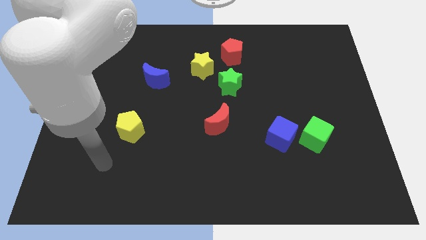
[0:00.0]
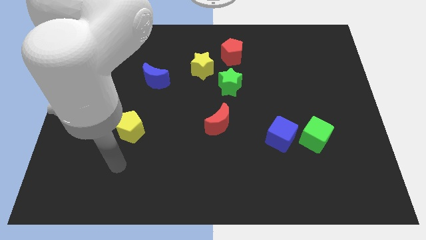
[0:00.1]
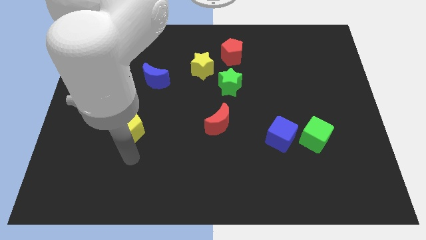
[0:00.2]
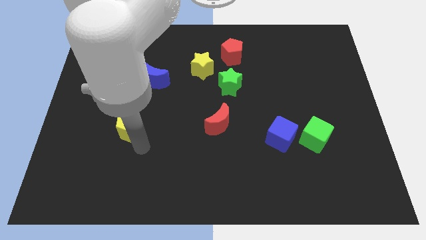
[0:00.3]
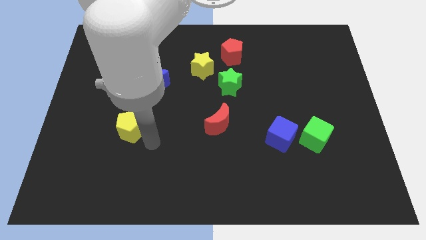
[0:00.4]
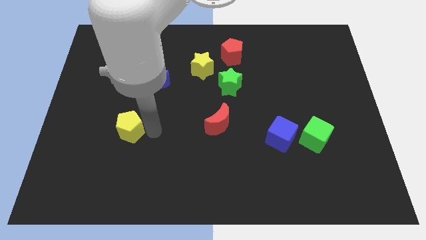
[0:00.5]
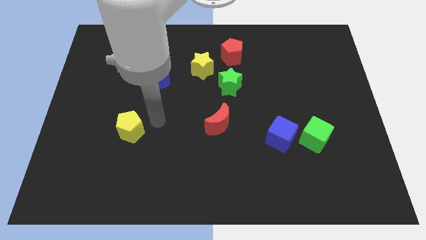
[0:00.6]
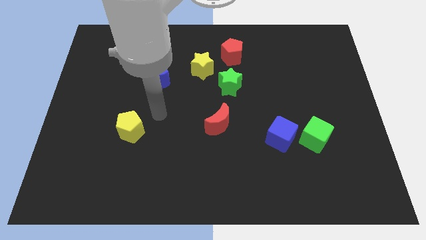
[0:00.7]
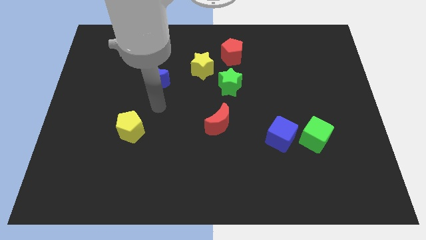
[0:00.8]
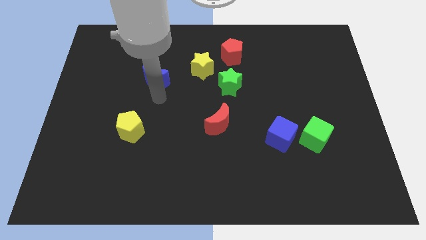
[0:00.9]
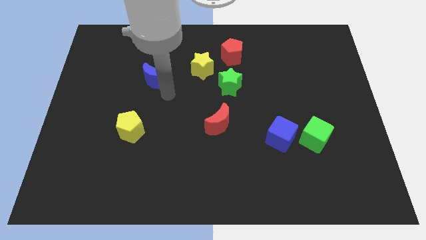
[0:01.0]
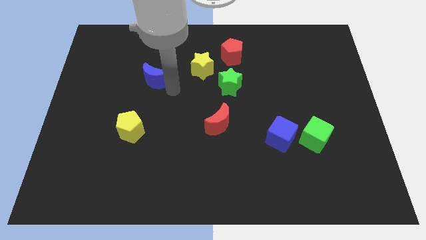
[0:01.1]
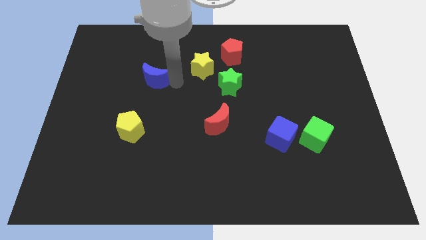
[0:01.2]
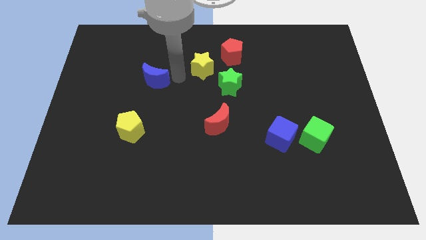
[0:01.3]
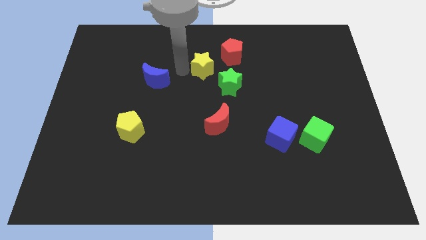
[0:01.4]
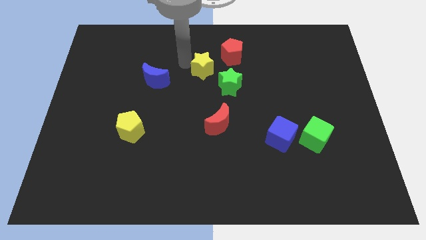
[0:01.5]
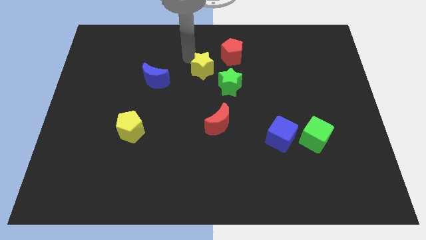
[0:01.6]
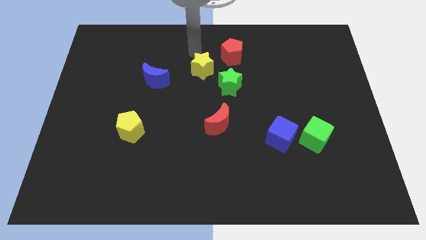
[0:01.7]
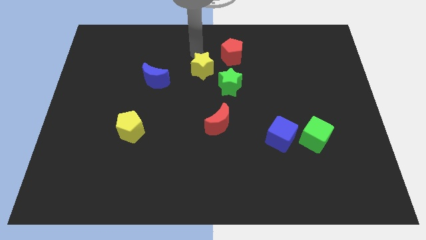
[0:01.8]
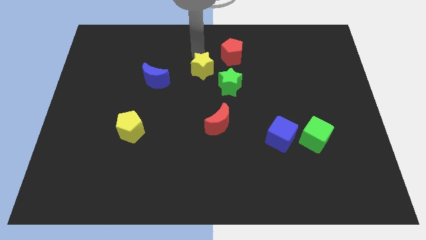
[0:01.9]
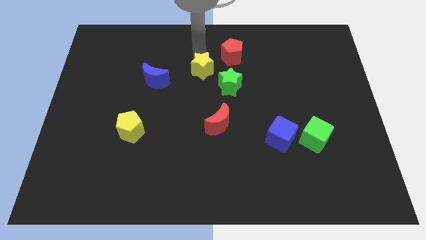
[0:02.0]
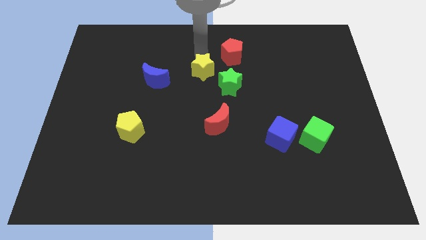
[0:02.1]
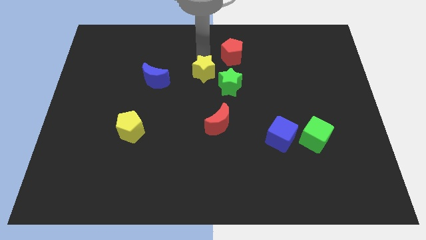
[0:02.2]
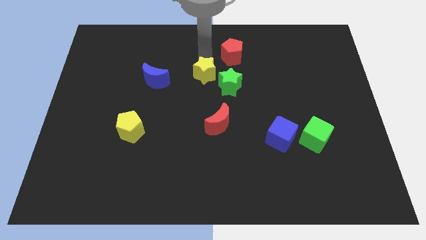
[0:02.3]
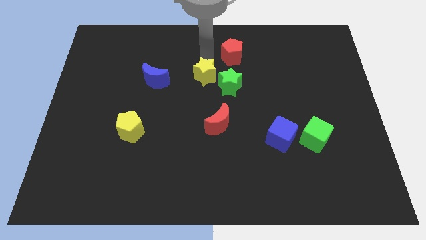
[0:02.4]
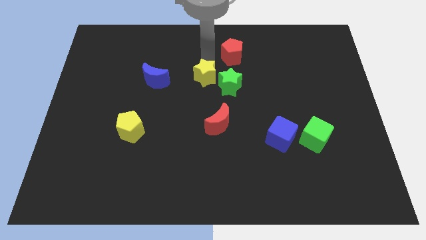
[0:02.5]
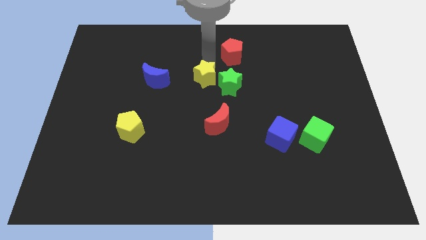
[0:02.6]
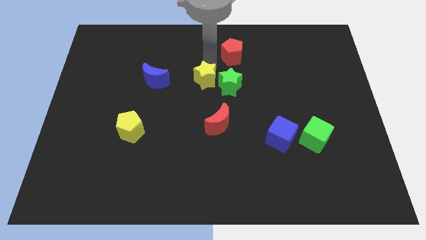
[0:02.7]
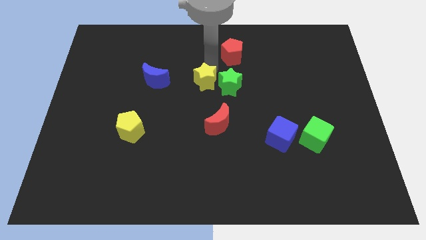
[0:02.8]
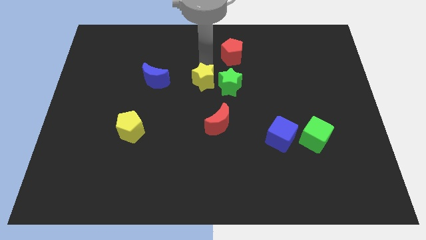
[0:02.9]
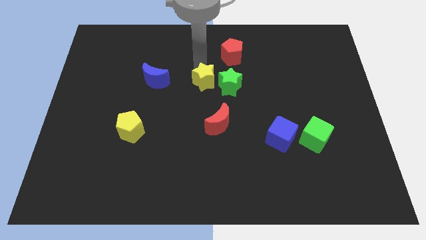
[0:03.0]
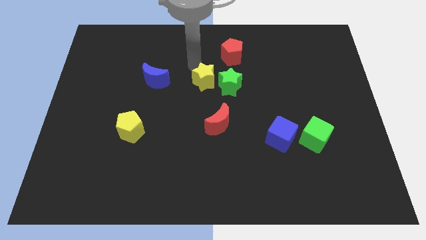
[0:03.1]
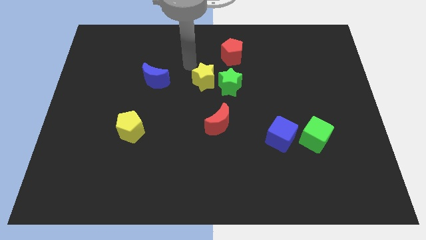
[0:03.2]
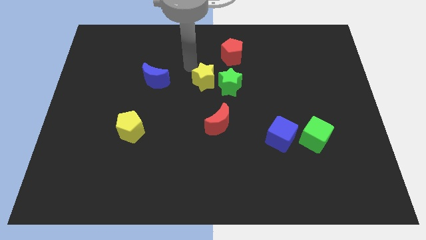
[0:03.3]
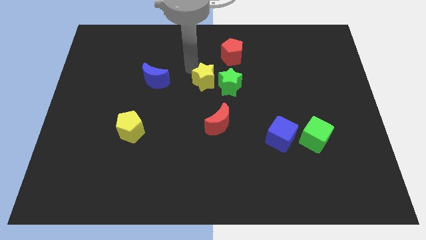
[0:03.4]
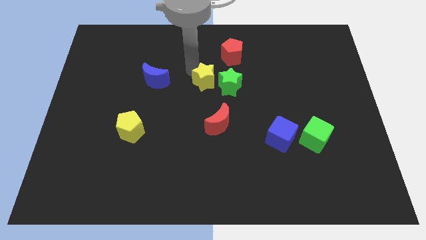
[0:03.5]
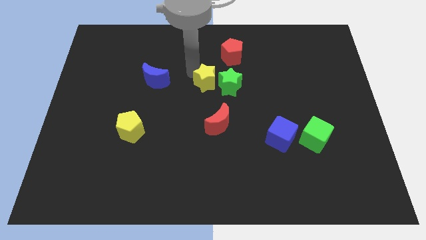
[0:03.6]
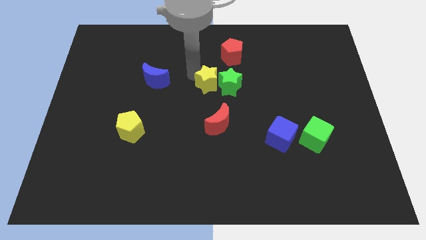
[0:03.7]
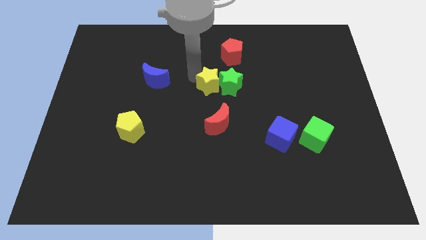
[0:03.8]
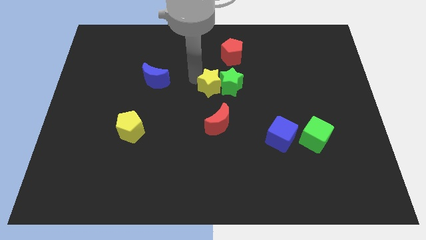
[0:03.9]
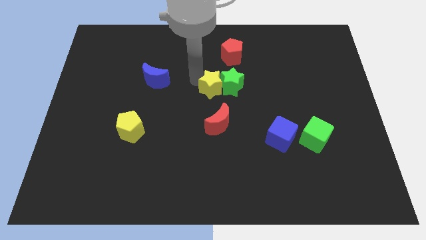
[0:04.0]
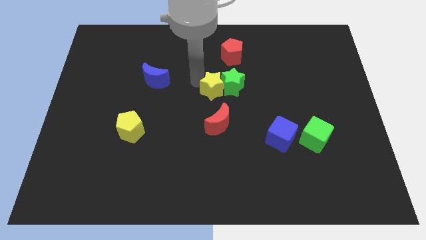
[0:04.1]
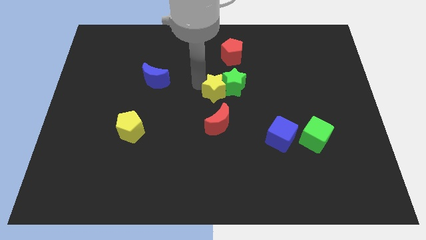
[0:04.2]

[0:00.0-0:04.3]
push the yellow star down and to the right slightly

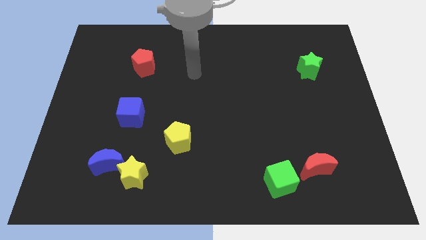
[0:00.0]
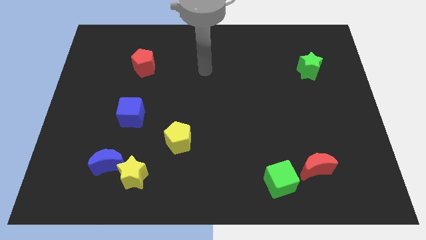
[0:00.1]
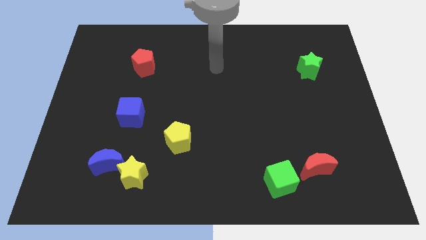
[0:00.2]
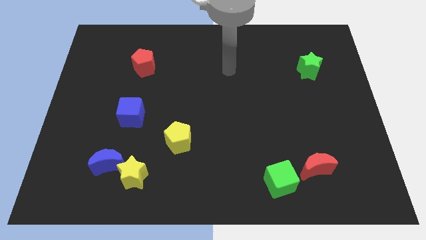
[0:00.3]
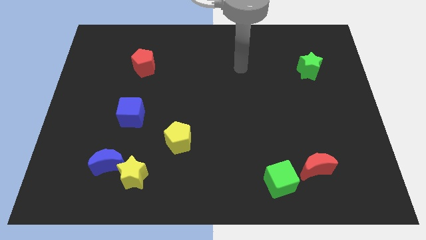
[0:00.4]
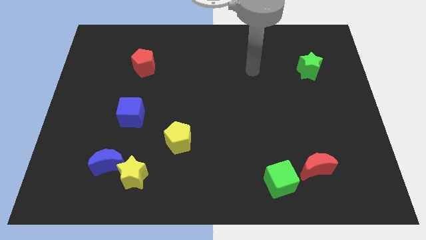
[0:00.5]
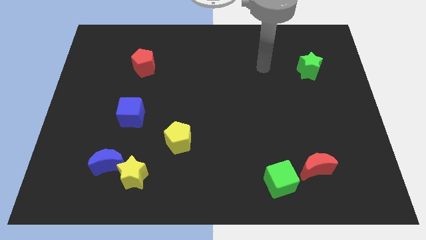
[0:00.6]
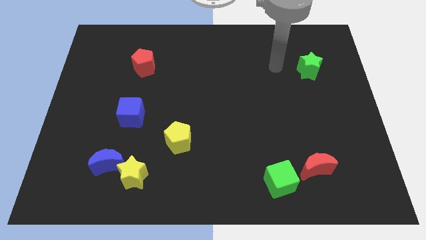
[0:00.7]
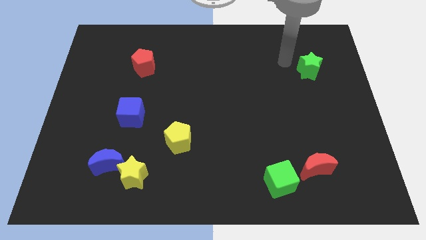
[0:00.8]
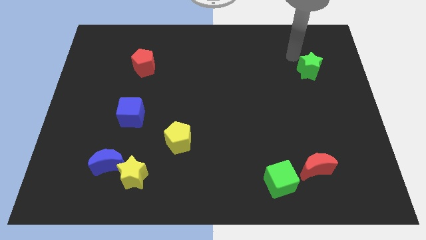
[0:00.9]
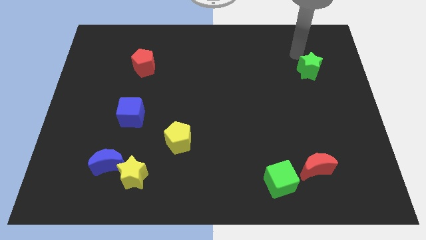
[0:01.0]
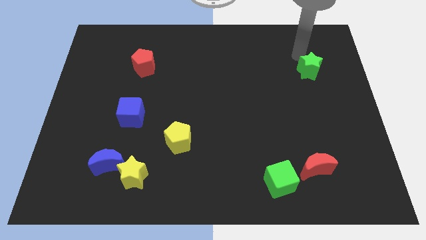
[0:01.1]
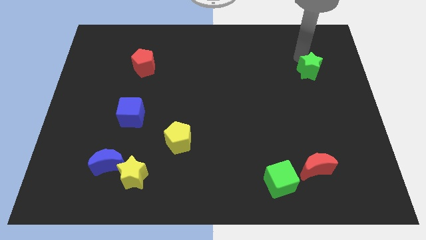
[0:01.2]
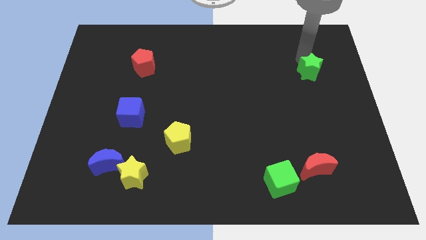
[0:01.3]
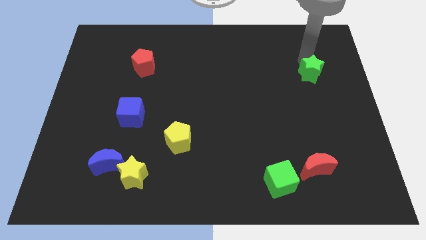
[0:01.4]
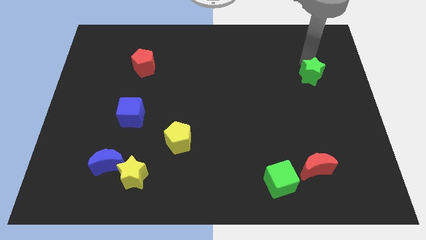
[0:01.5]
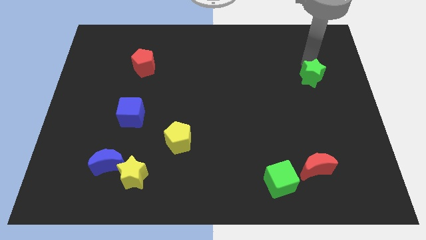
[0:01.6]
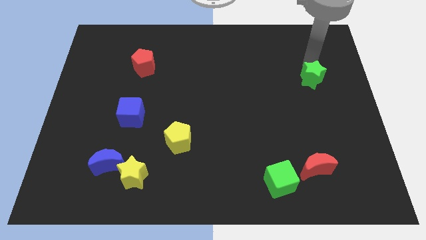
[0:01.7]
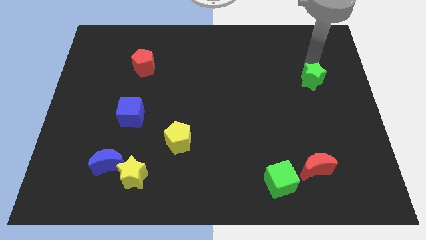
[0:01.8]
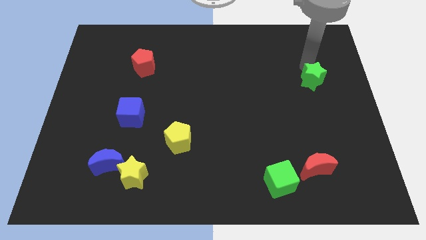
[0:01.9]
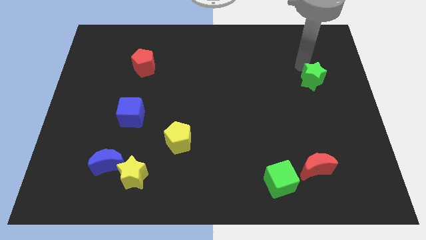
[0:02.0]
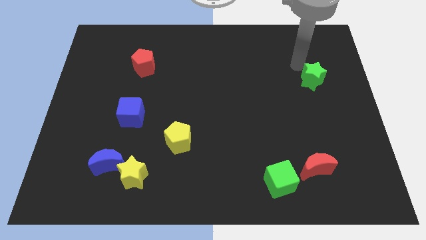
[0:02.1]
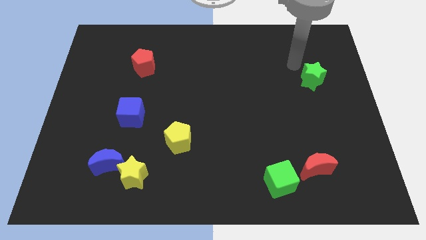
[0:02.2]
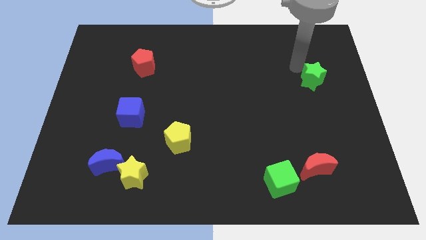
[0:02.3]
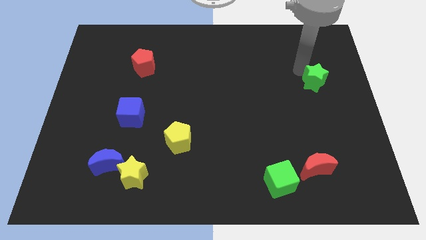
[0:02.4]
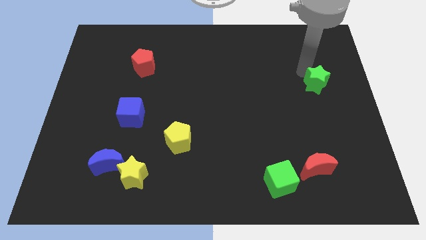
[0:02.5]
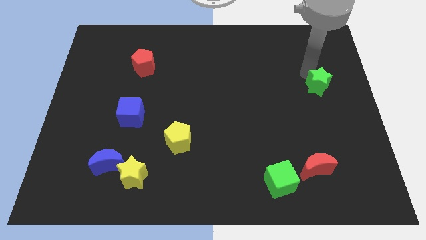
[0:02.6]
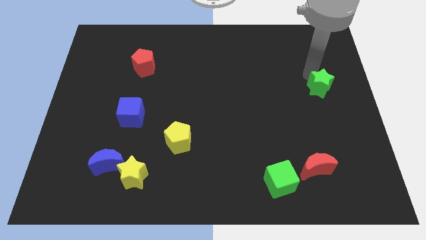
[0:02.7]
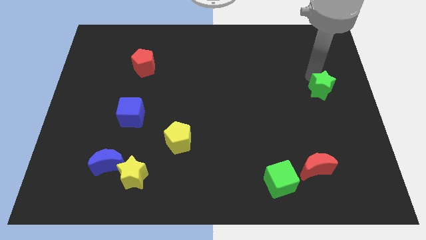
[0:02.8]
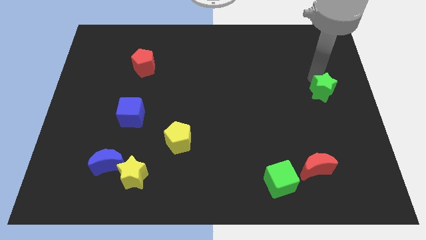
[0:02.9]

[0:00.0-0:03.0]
move the green star a little bit down

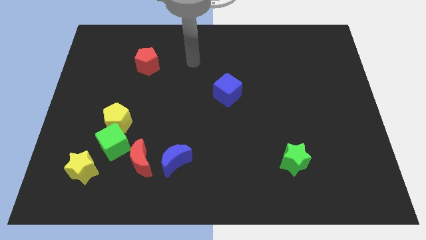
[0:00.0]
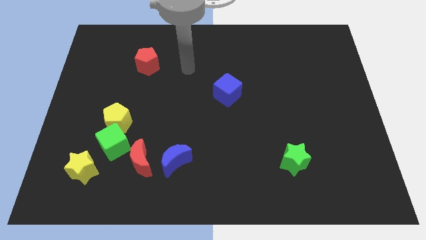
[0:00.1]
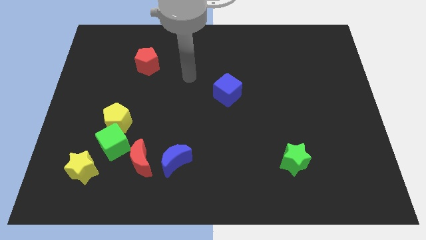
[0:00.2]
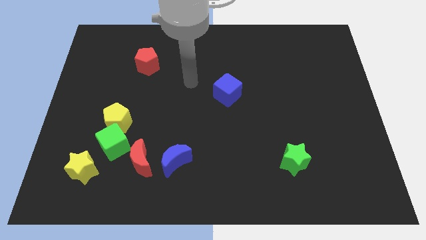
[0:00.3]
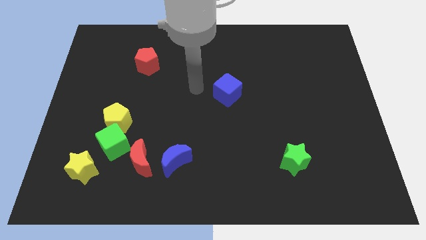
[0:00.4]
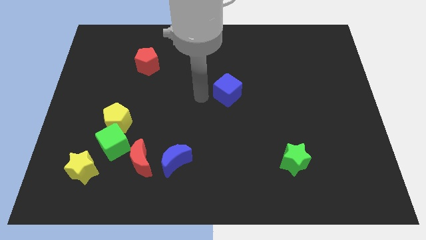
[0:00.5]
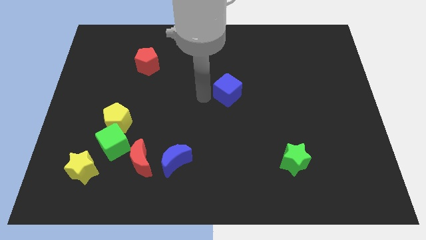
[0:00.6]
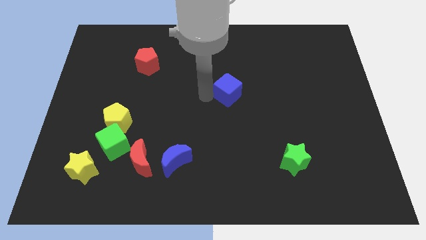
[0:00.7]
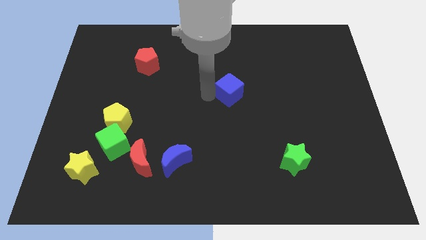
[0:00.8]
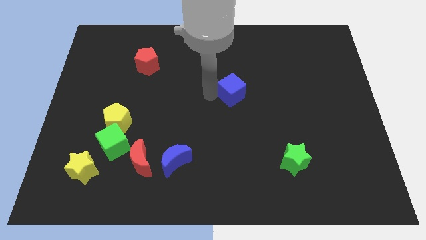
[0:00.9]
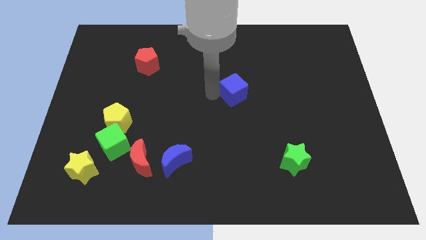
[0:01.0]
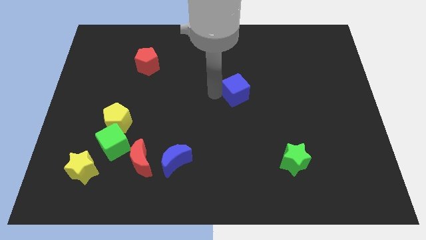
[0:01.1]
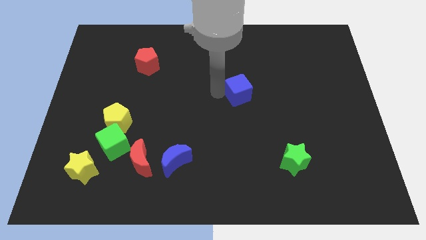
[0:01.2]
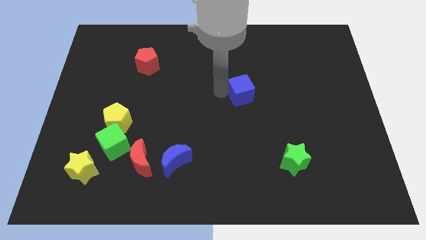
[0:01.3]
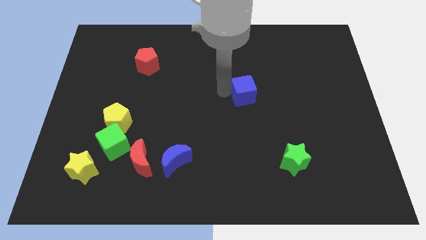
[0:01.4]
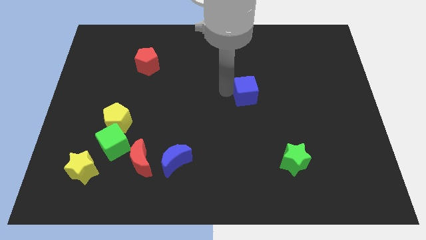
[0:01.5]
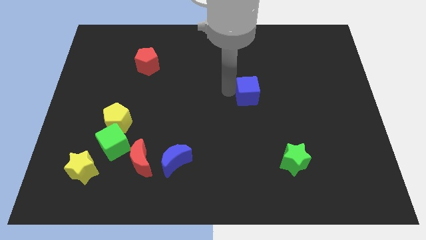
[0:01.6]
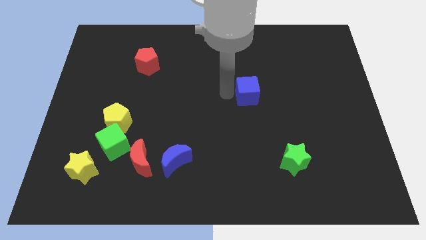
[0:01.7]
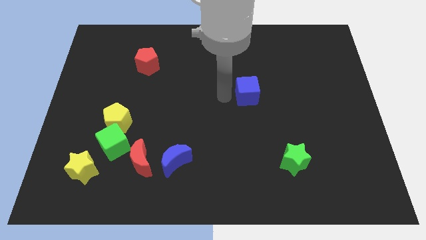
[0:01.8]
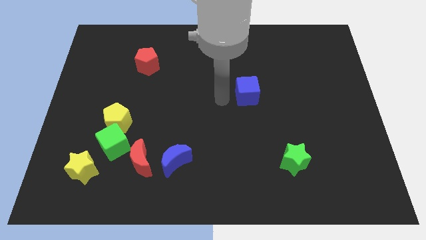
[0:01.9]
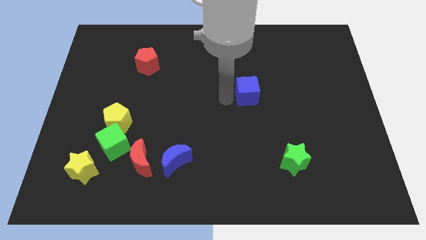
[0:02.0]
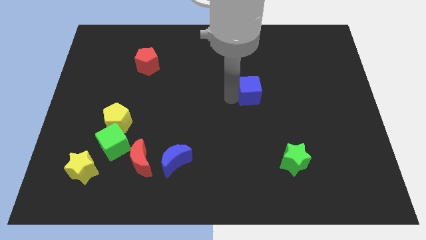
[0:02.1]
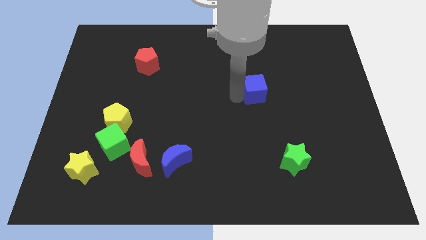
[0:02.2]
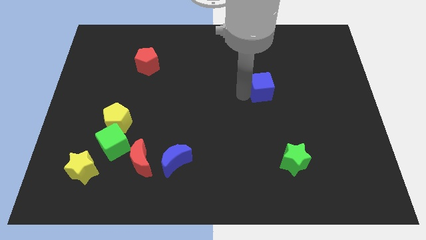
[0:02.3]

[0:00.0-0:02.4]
slide the blue cube somewhat right
